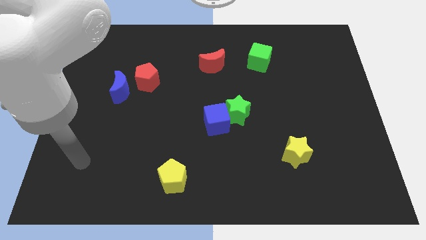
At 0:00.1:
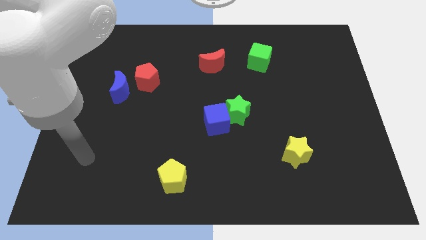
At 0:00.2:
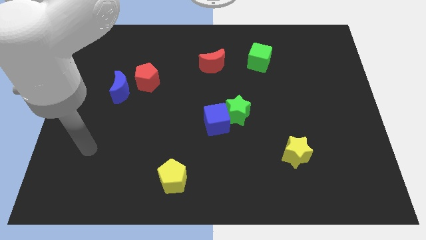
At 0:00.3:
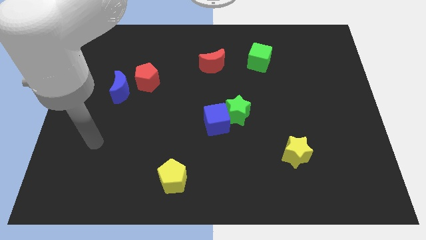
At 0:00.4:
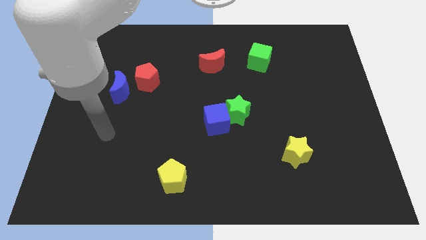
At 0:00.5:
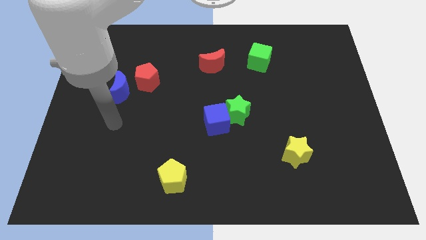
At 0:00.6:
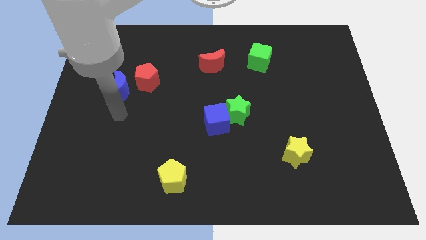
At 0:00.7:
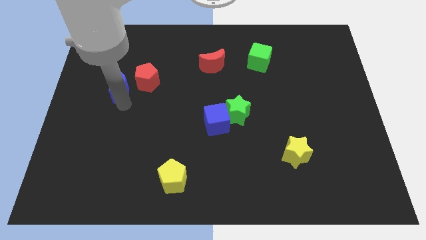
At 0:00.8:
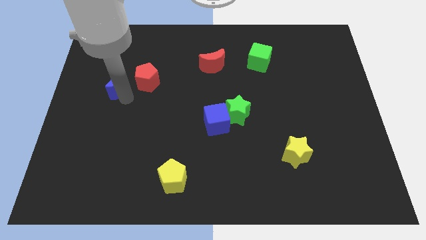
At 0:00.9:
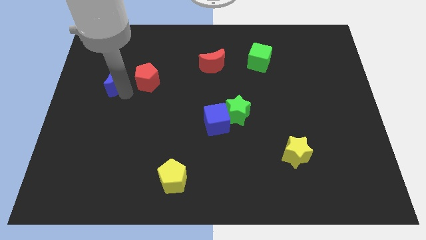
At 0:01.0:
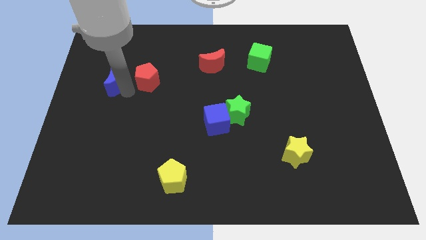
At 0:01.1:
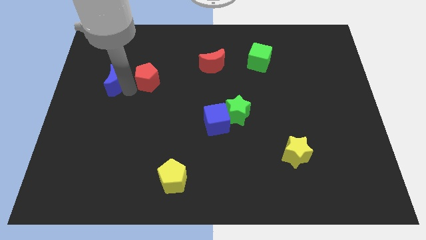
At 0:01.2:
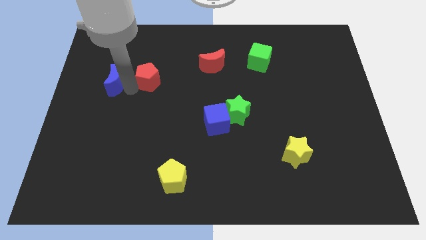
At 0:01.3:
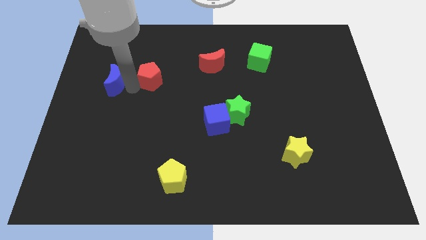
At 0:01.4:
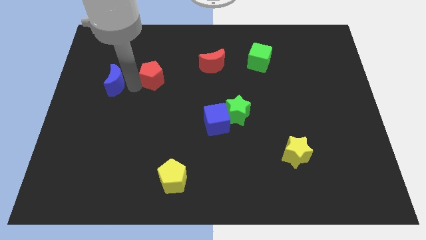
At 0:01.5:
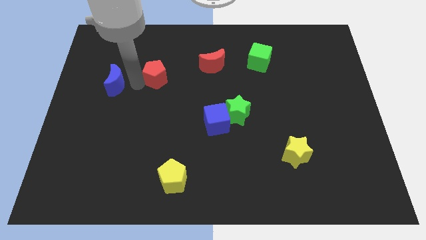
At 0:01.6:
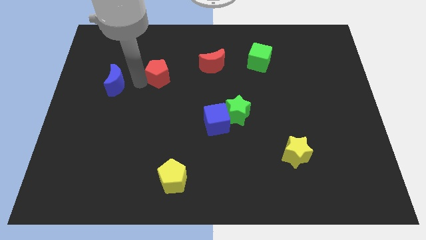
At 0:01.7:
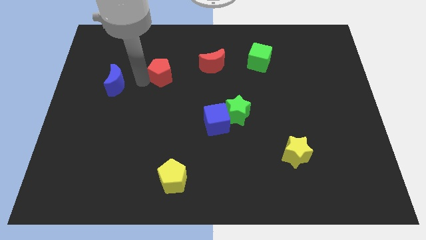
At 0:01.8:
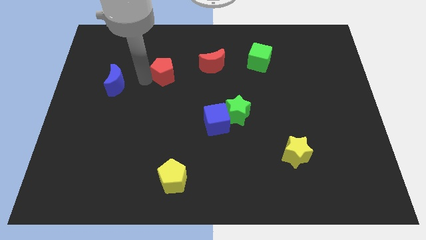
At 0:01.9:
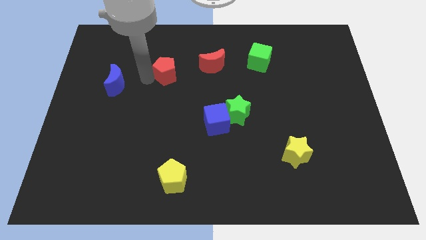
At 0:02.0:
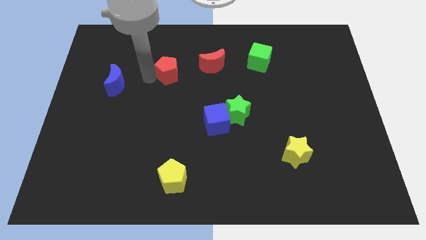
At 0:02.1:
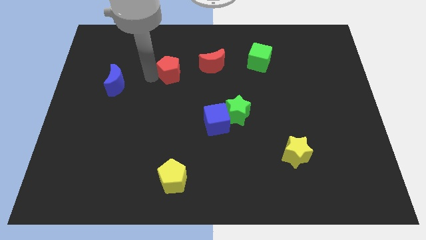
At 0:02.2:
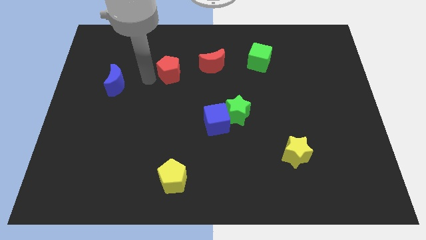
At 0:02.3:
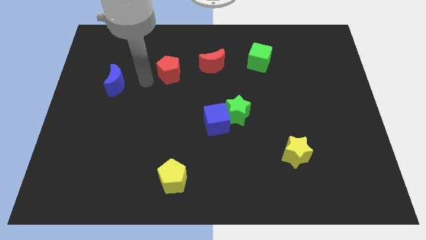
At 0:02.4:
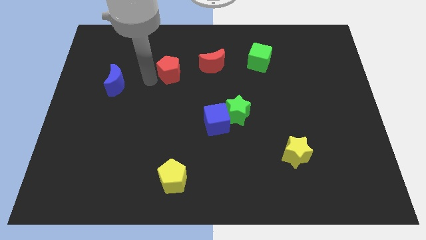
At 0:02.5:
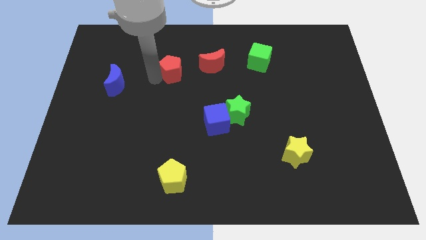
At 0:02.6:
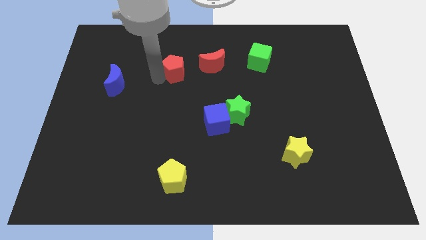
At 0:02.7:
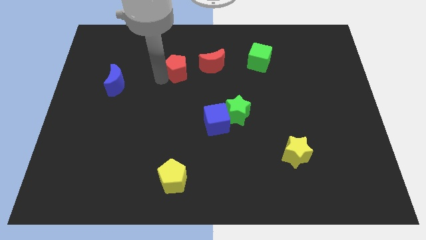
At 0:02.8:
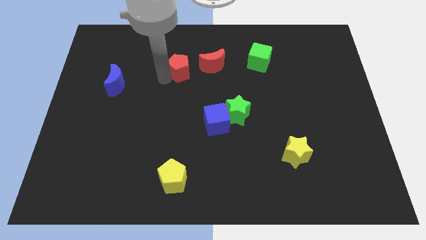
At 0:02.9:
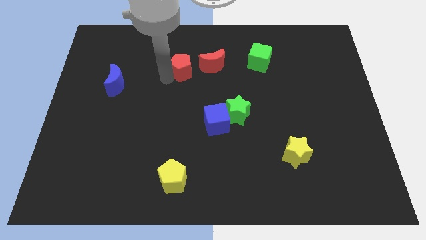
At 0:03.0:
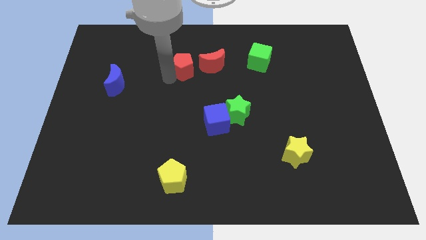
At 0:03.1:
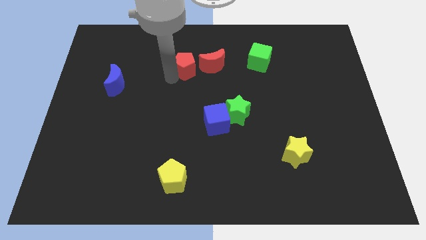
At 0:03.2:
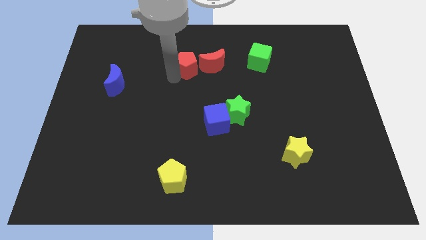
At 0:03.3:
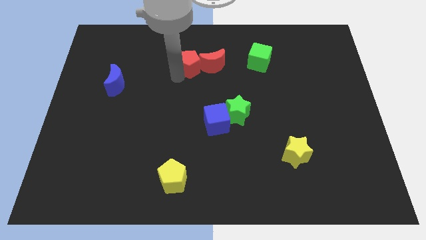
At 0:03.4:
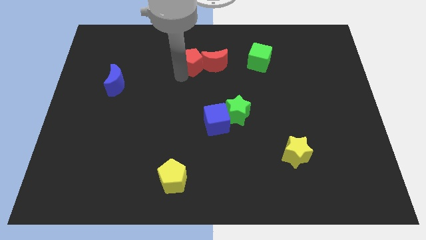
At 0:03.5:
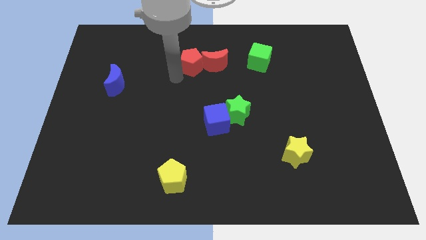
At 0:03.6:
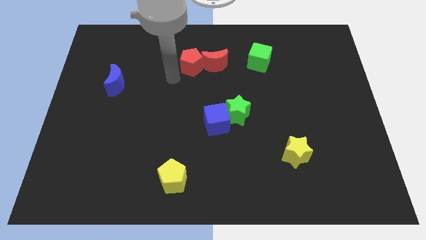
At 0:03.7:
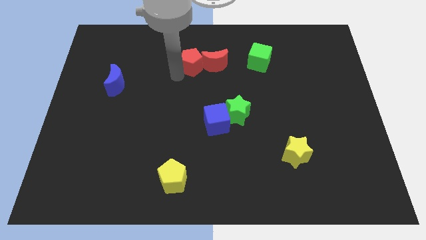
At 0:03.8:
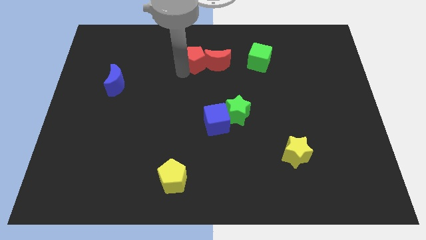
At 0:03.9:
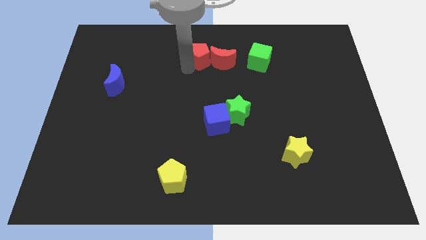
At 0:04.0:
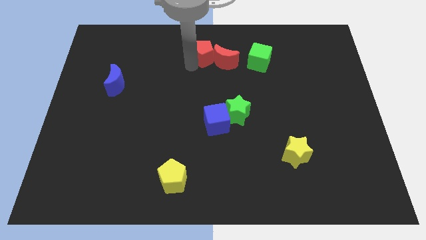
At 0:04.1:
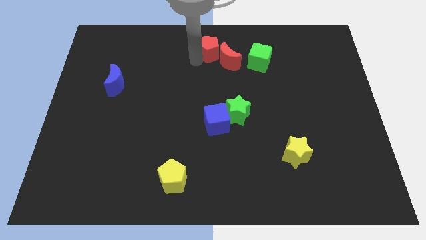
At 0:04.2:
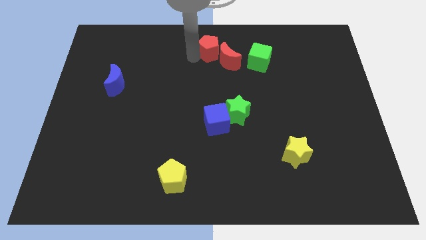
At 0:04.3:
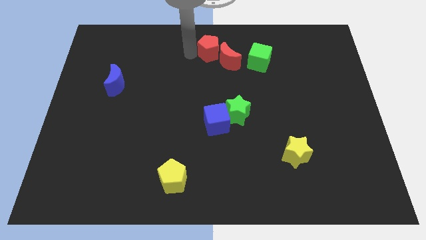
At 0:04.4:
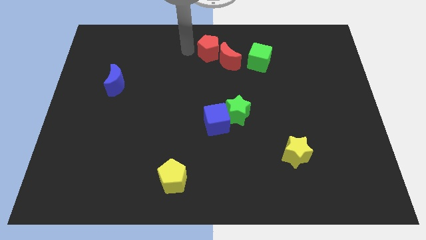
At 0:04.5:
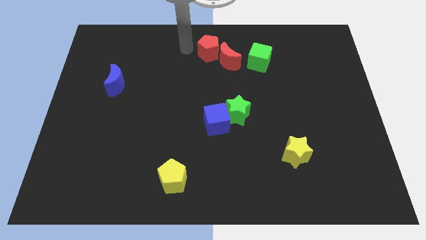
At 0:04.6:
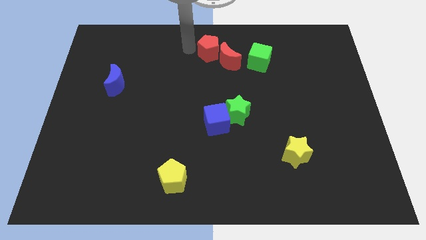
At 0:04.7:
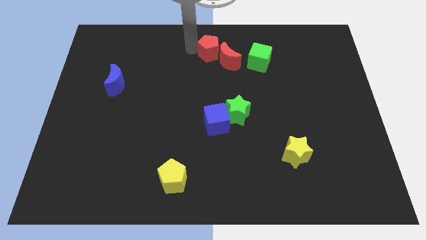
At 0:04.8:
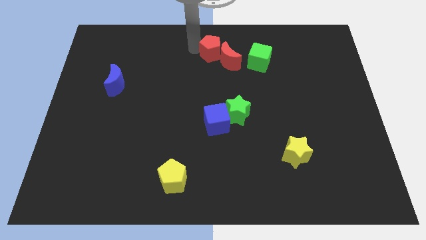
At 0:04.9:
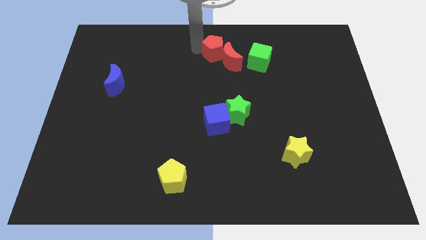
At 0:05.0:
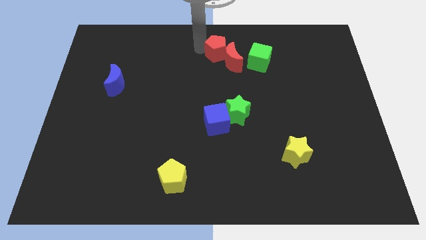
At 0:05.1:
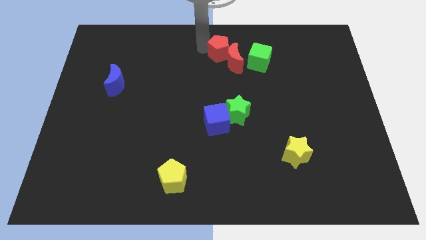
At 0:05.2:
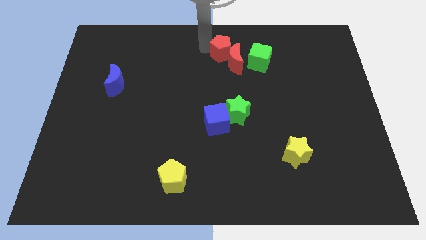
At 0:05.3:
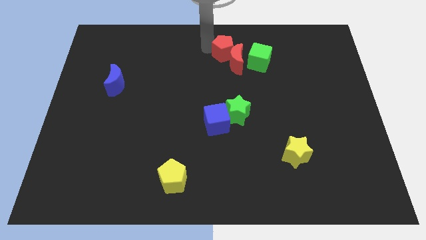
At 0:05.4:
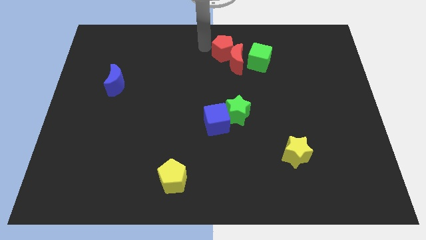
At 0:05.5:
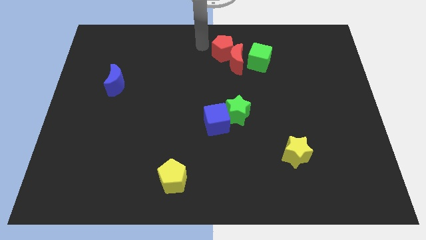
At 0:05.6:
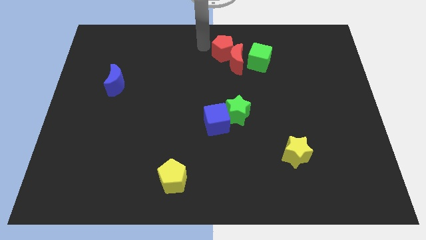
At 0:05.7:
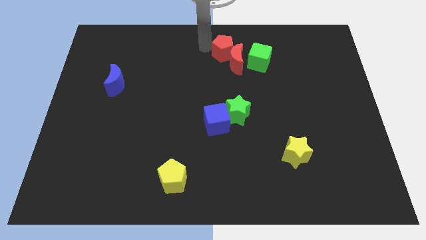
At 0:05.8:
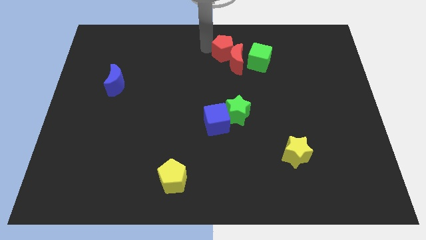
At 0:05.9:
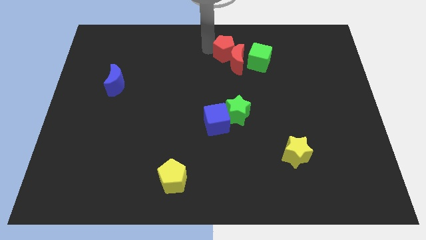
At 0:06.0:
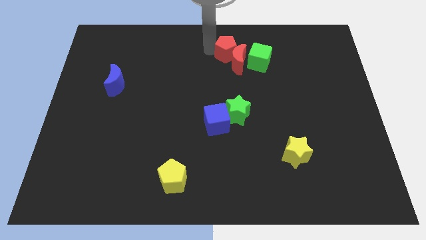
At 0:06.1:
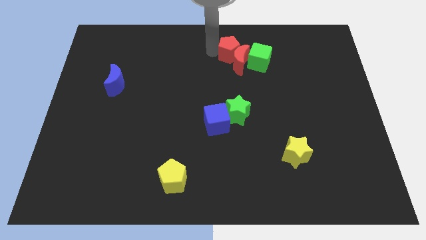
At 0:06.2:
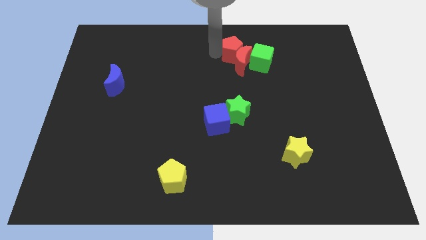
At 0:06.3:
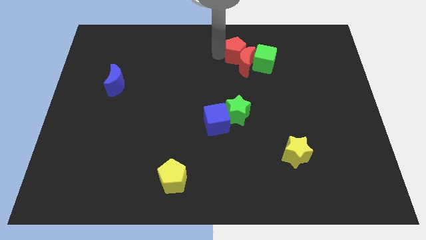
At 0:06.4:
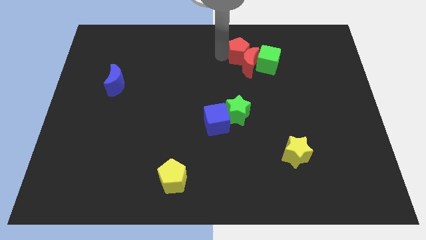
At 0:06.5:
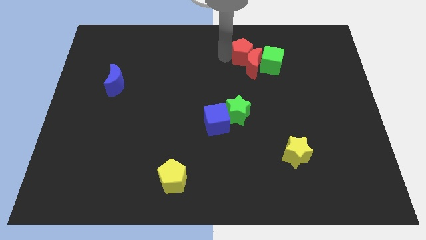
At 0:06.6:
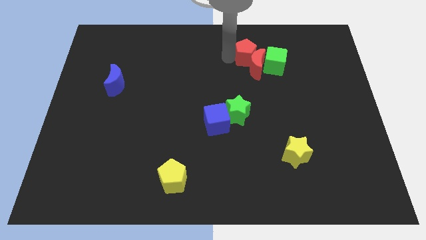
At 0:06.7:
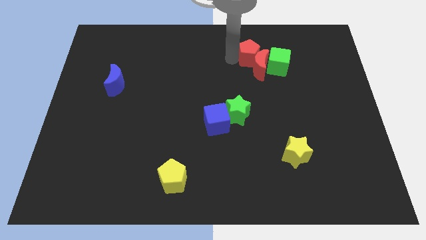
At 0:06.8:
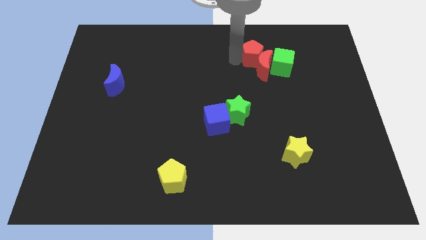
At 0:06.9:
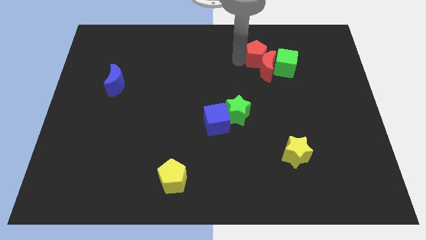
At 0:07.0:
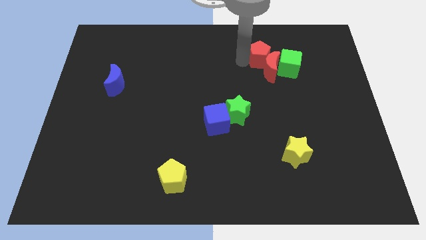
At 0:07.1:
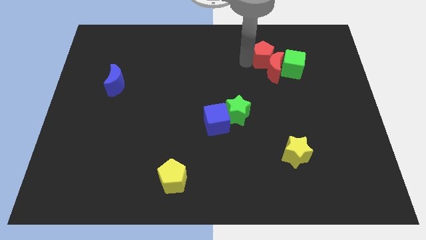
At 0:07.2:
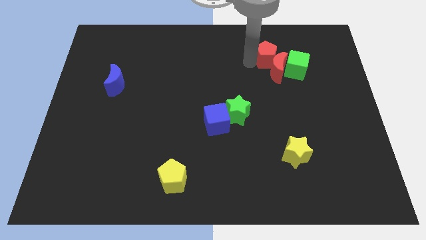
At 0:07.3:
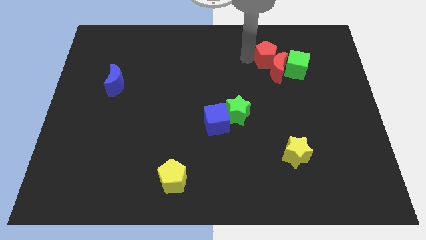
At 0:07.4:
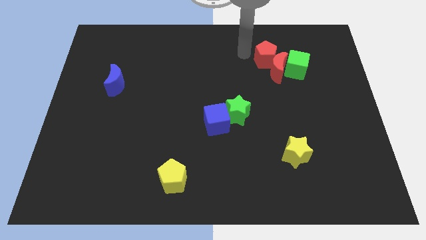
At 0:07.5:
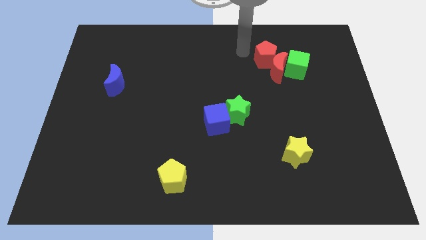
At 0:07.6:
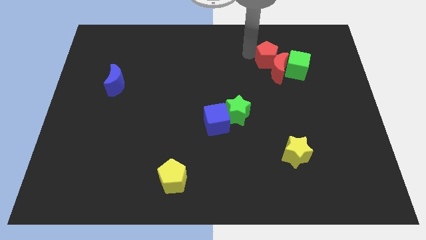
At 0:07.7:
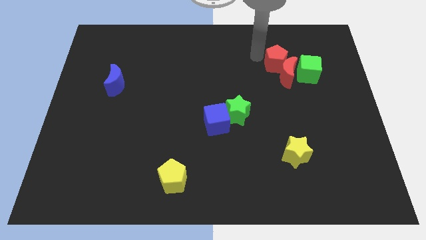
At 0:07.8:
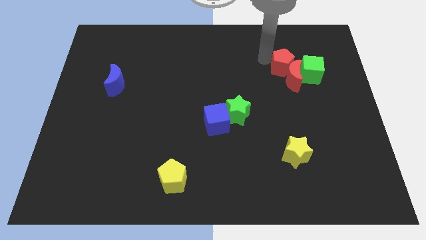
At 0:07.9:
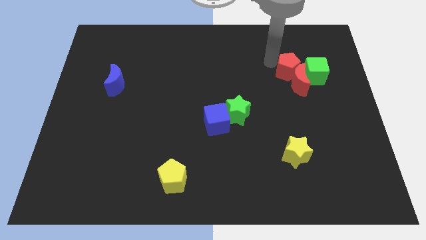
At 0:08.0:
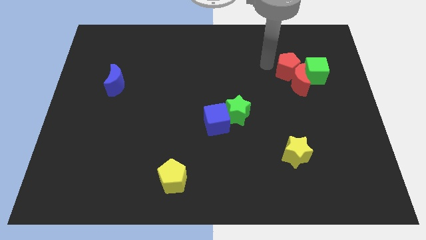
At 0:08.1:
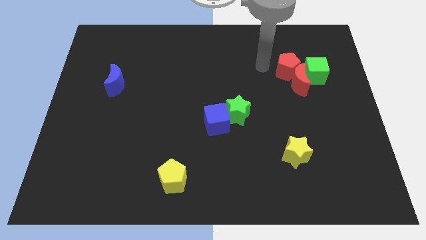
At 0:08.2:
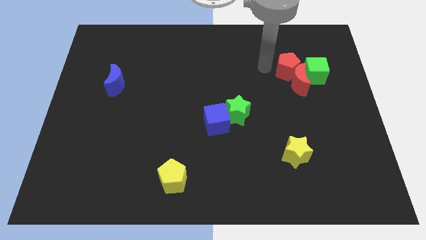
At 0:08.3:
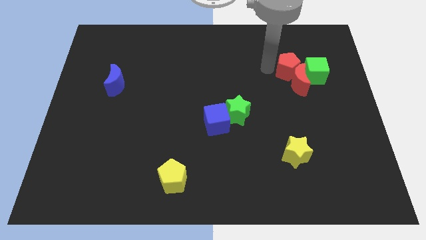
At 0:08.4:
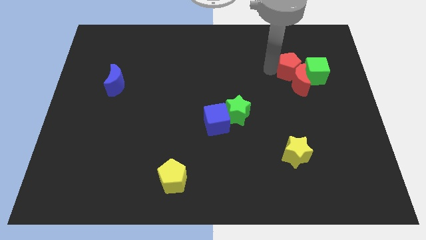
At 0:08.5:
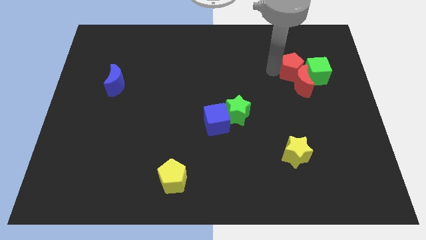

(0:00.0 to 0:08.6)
put the red pentagon close to the green cube
